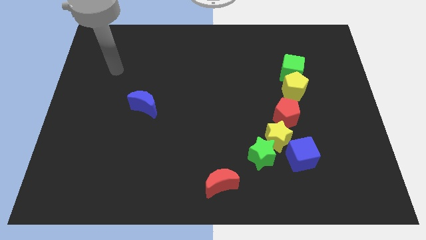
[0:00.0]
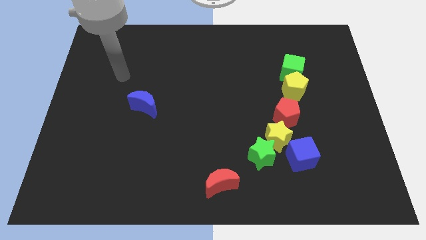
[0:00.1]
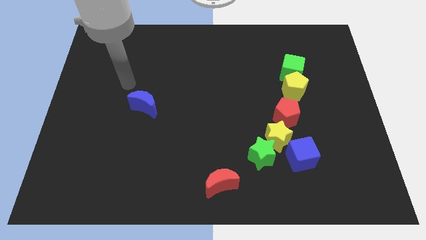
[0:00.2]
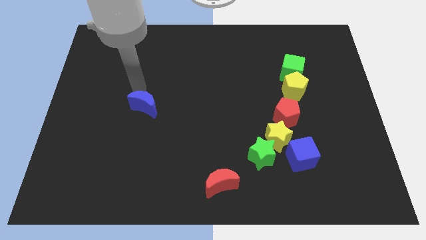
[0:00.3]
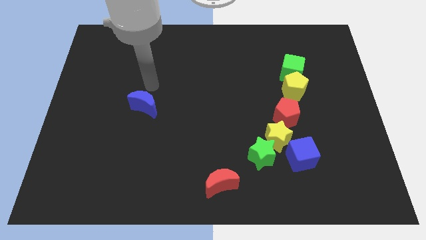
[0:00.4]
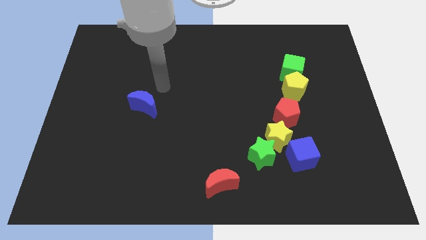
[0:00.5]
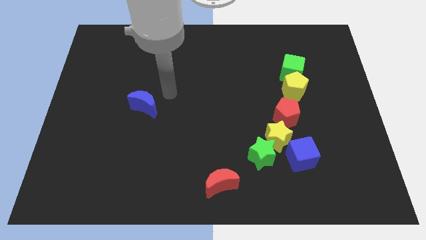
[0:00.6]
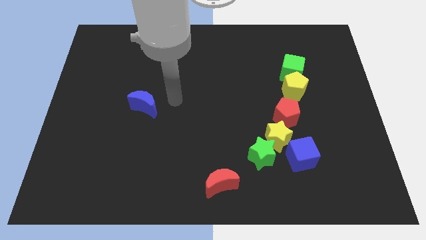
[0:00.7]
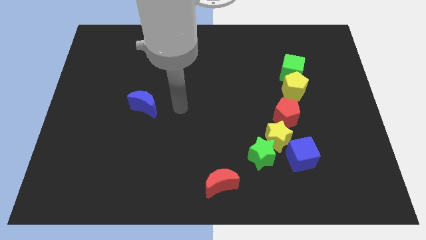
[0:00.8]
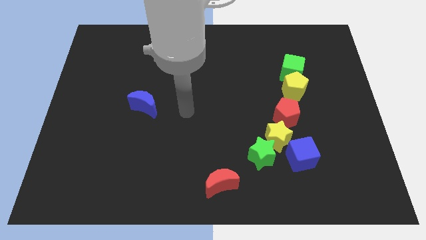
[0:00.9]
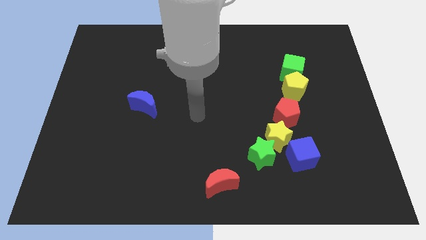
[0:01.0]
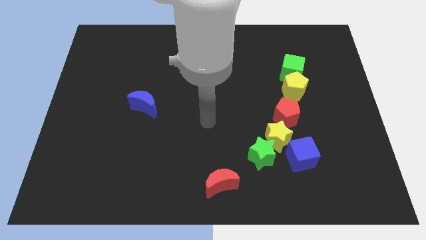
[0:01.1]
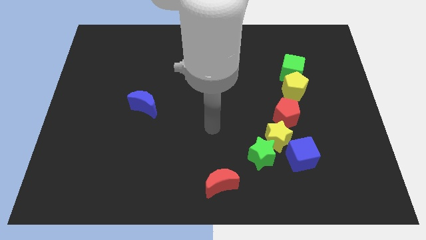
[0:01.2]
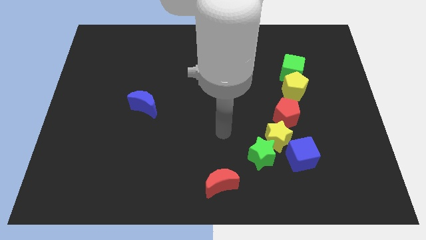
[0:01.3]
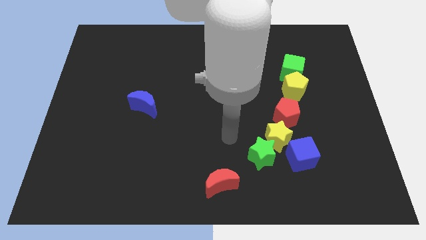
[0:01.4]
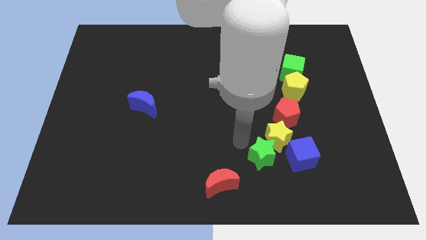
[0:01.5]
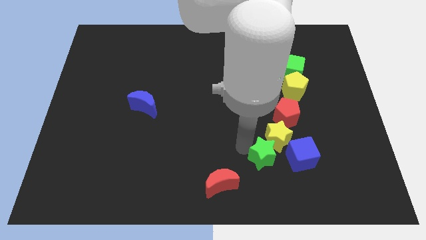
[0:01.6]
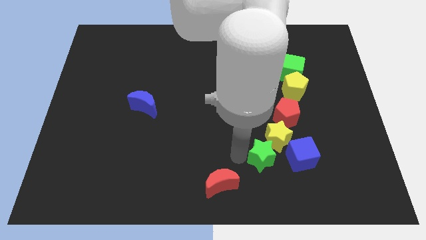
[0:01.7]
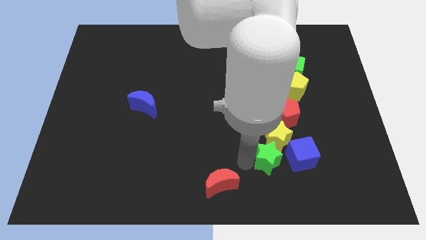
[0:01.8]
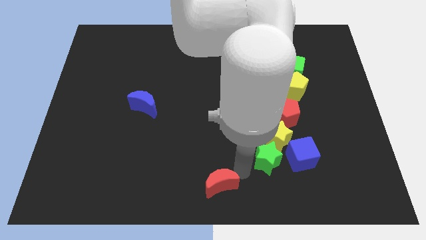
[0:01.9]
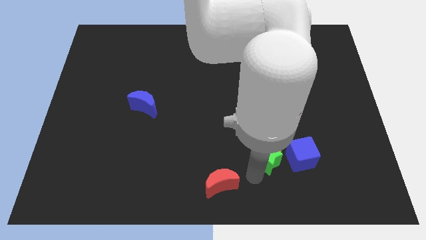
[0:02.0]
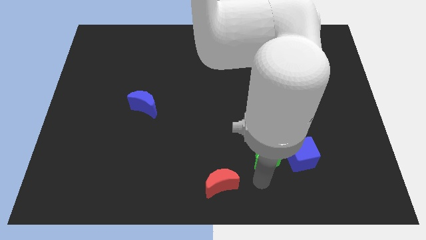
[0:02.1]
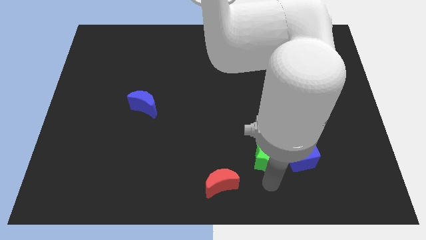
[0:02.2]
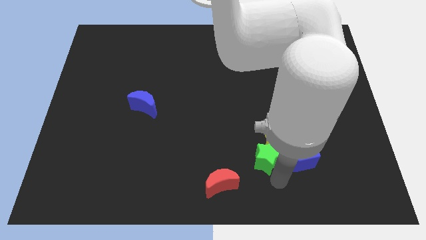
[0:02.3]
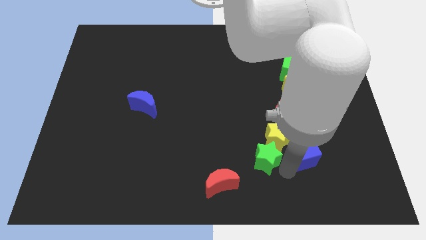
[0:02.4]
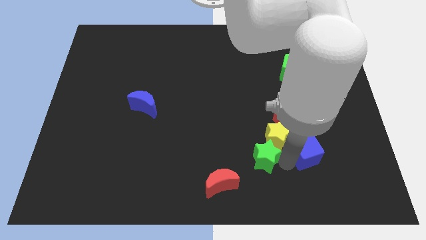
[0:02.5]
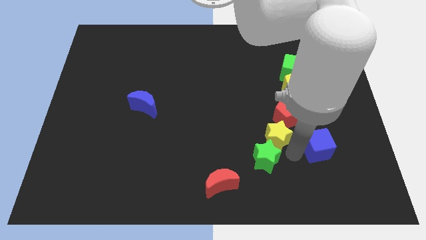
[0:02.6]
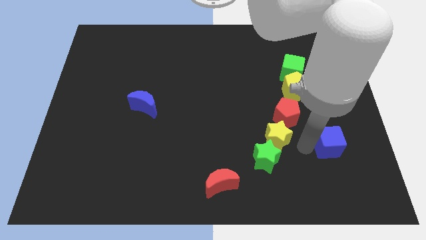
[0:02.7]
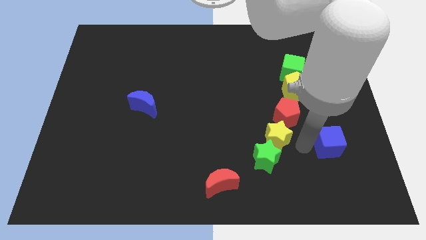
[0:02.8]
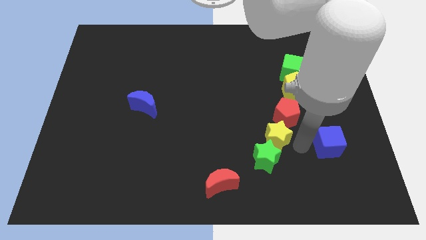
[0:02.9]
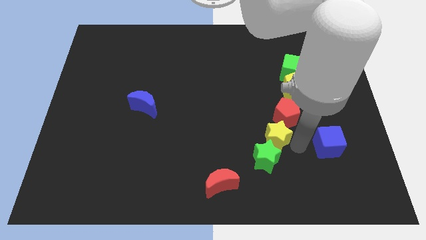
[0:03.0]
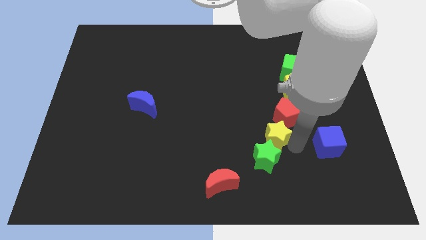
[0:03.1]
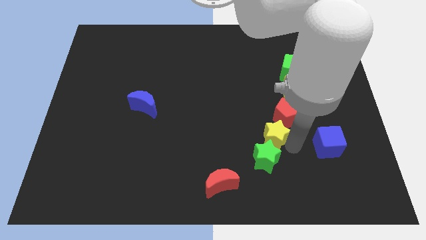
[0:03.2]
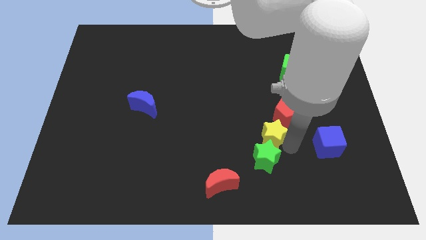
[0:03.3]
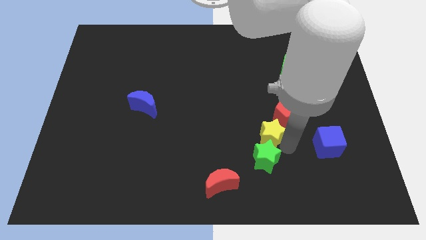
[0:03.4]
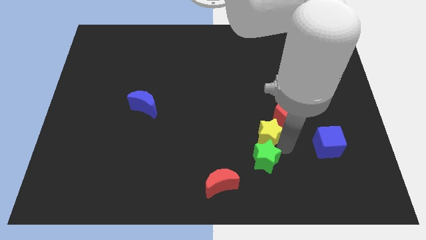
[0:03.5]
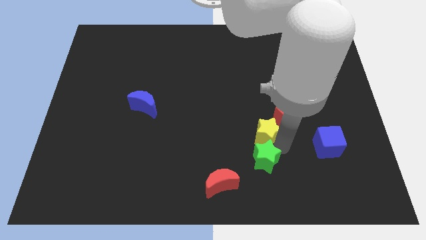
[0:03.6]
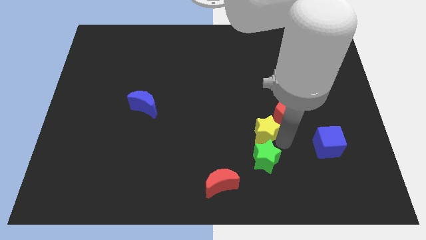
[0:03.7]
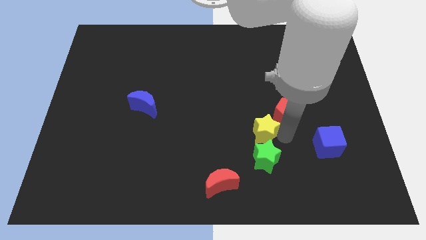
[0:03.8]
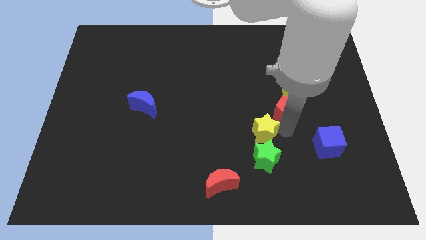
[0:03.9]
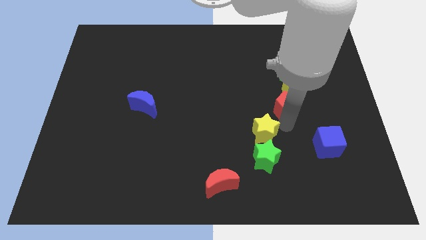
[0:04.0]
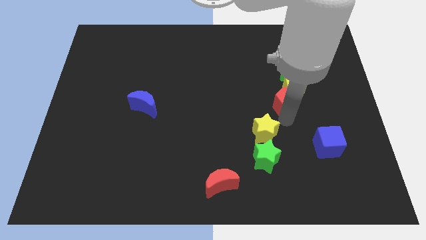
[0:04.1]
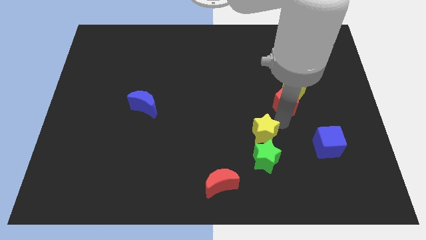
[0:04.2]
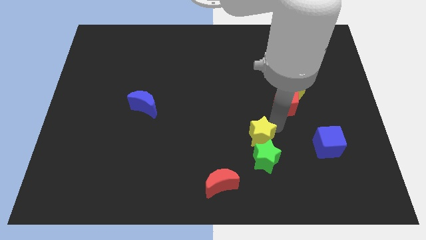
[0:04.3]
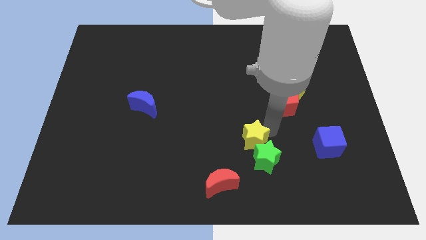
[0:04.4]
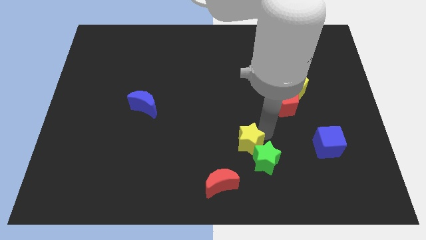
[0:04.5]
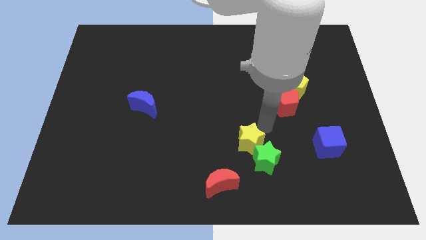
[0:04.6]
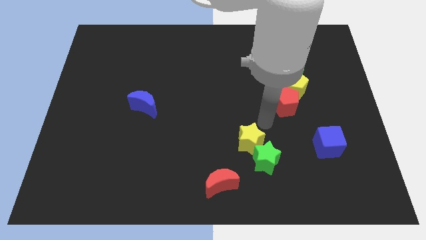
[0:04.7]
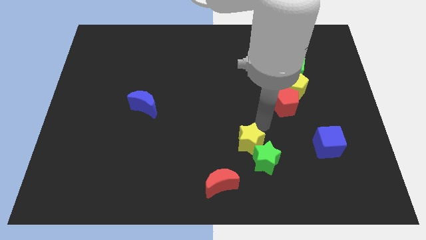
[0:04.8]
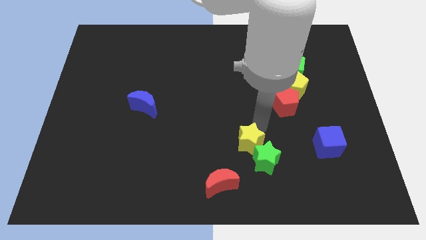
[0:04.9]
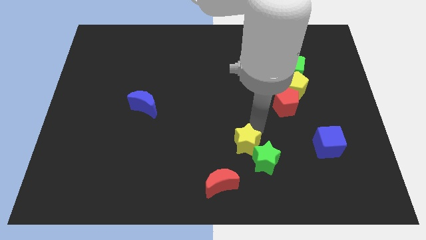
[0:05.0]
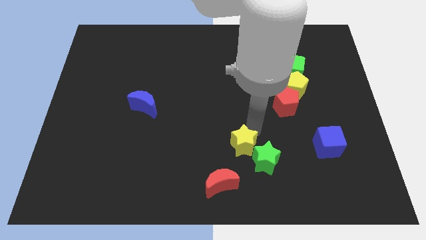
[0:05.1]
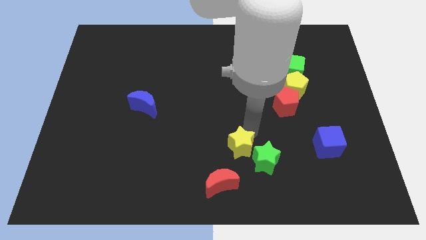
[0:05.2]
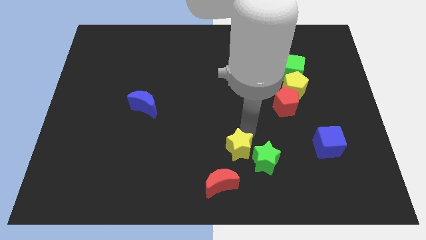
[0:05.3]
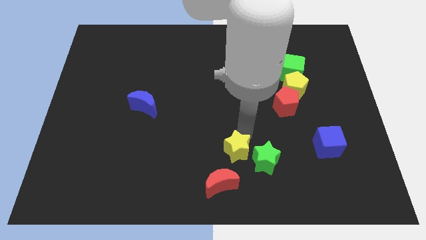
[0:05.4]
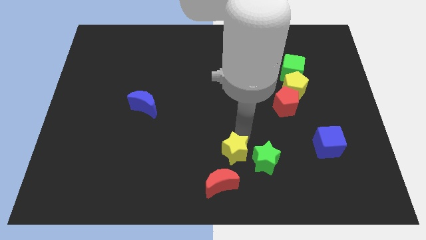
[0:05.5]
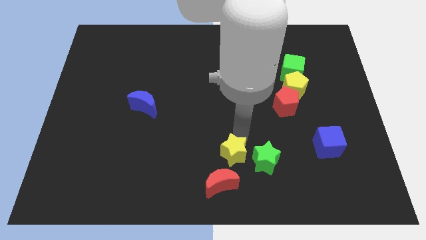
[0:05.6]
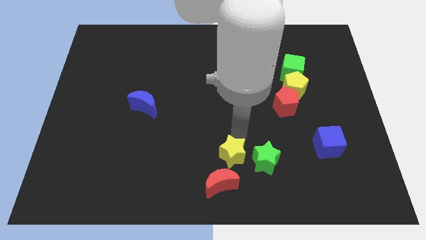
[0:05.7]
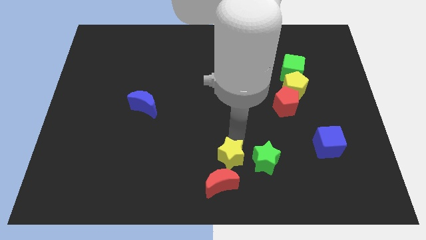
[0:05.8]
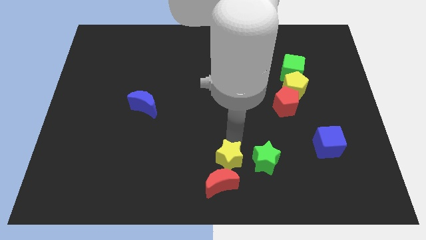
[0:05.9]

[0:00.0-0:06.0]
move the yellow star next to the red moon

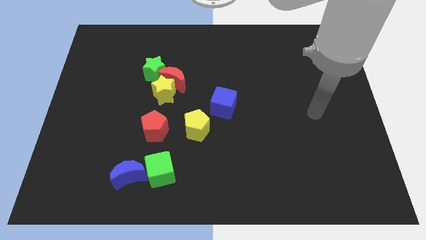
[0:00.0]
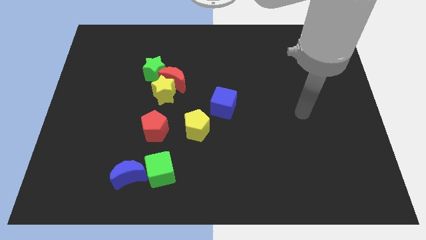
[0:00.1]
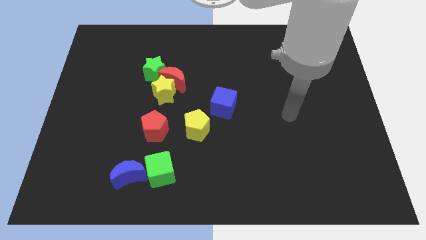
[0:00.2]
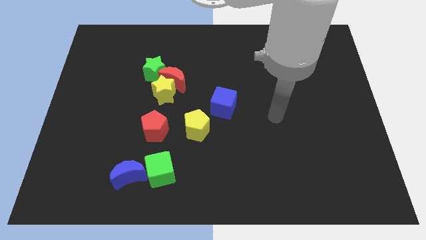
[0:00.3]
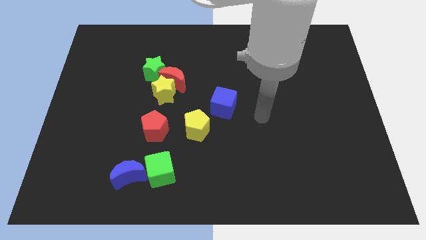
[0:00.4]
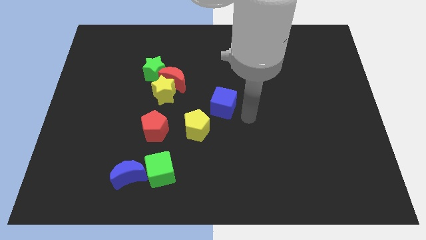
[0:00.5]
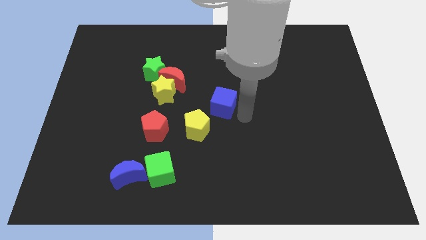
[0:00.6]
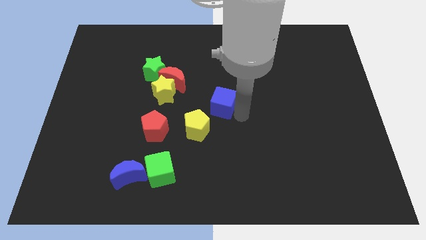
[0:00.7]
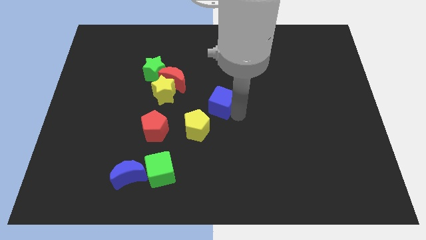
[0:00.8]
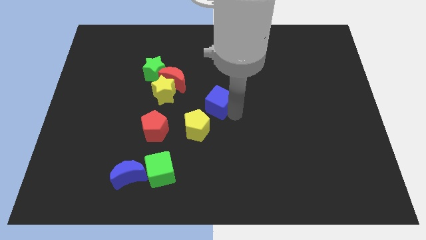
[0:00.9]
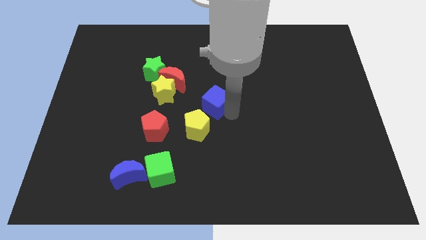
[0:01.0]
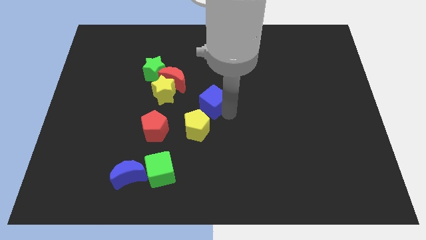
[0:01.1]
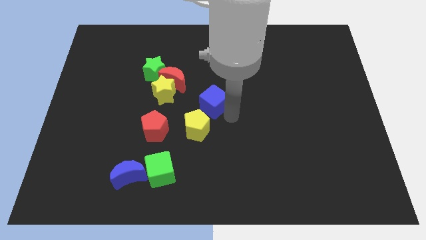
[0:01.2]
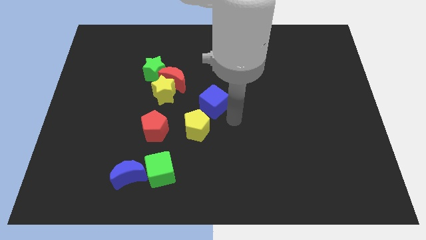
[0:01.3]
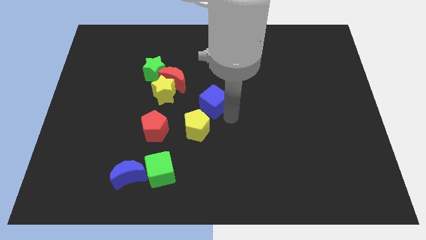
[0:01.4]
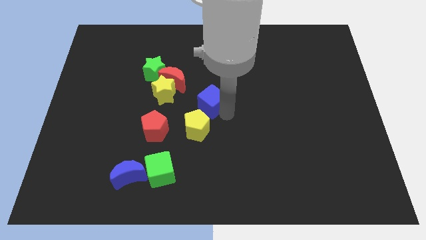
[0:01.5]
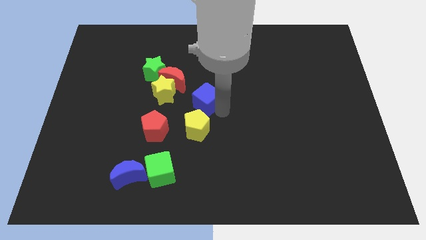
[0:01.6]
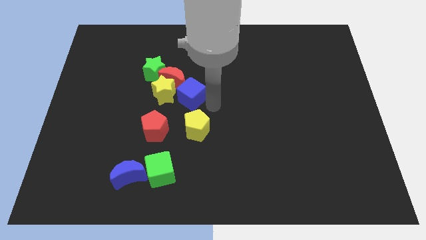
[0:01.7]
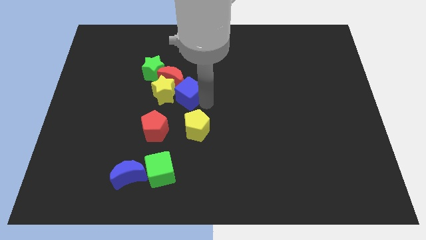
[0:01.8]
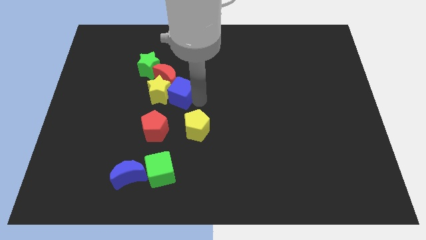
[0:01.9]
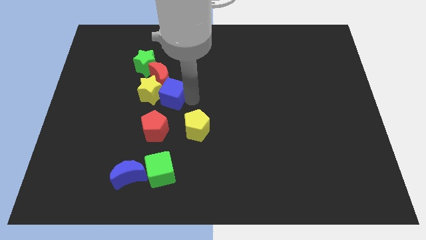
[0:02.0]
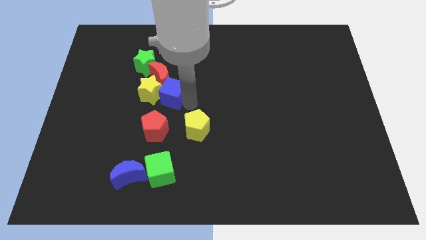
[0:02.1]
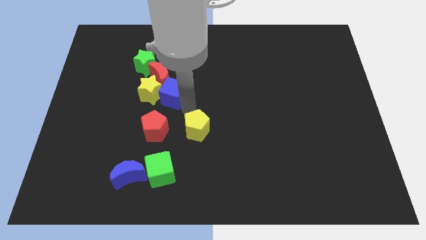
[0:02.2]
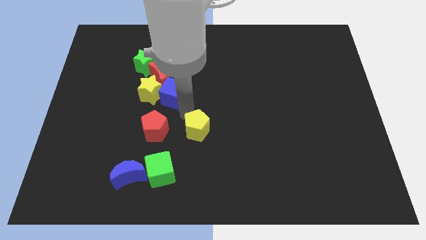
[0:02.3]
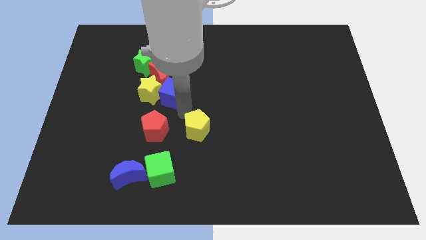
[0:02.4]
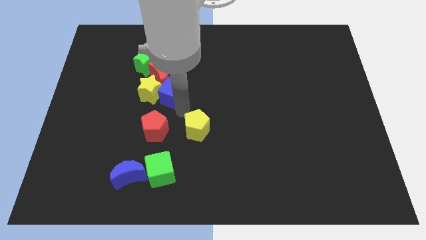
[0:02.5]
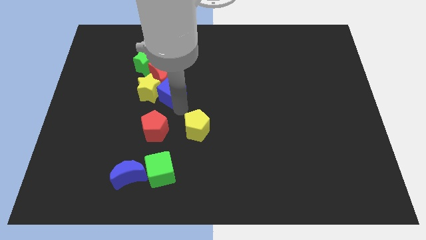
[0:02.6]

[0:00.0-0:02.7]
put the blue cube towards the red moon
